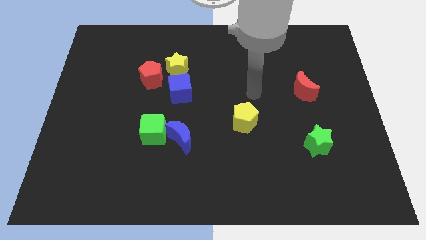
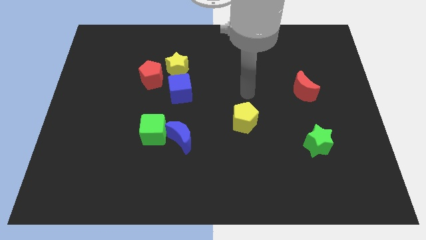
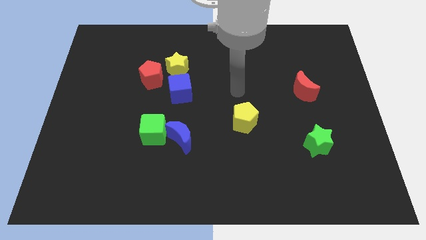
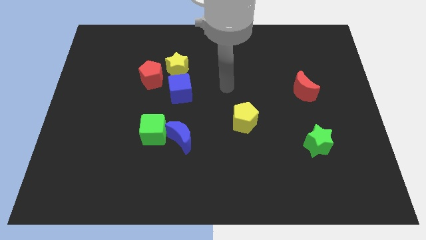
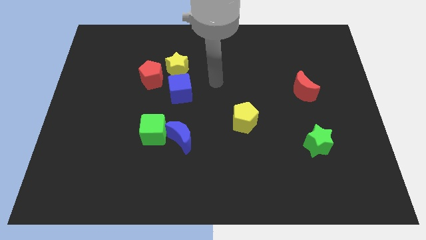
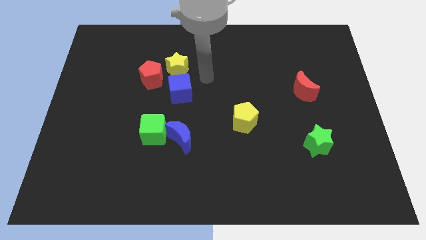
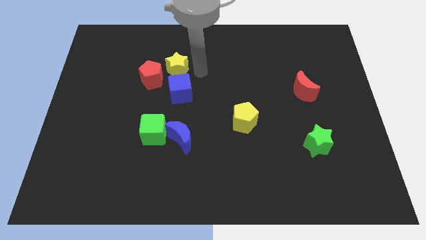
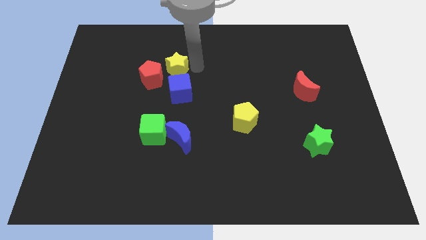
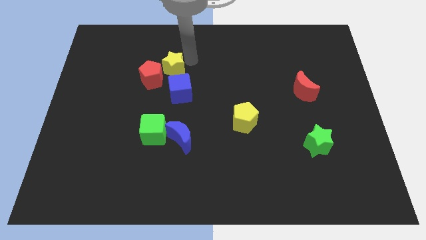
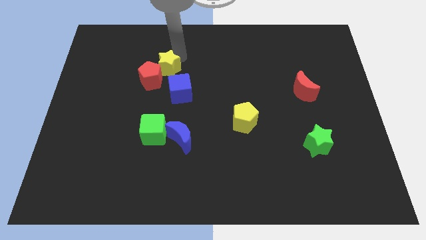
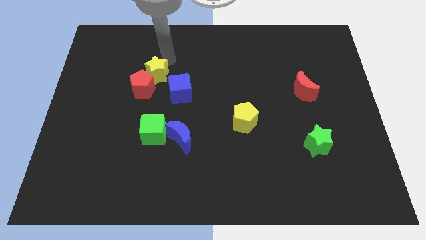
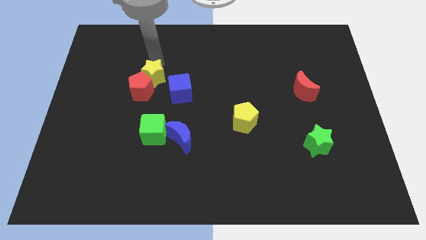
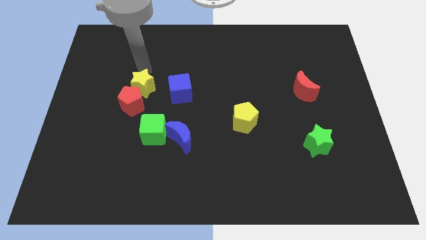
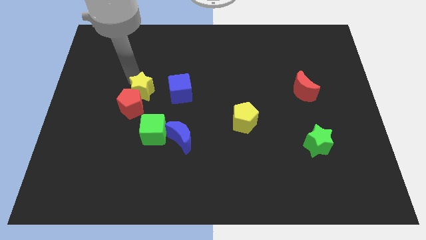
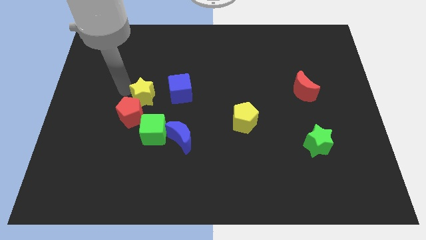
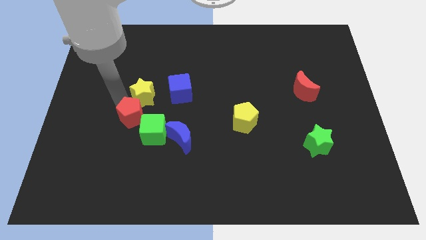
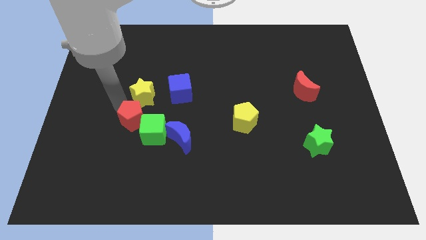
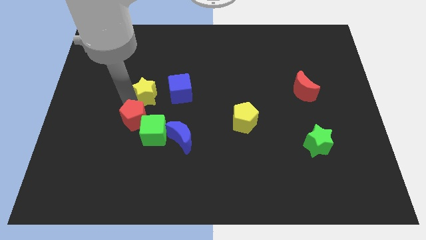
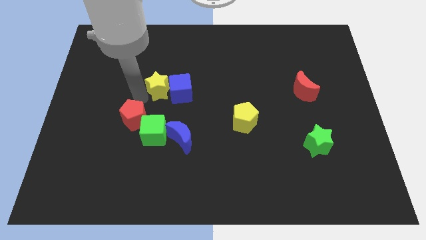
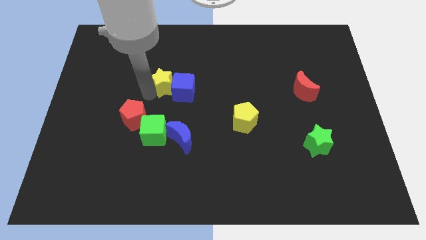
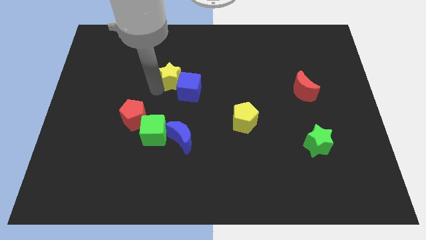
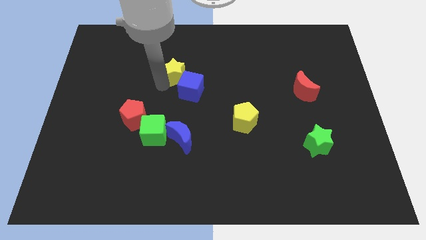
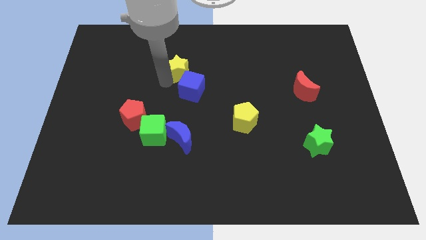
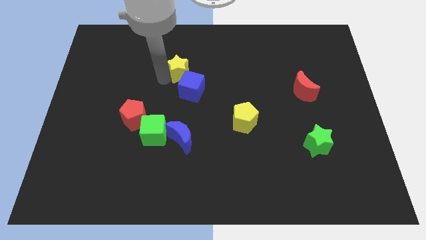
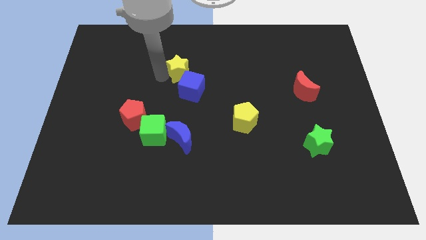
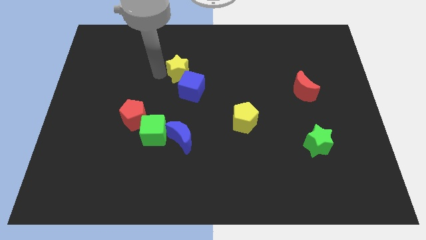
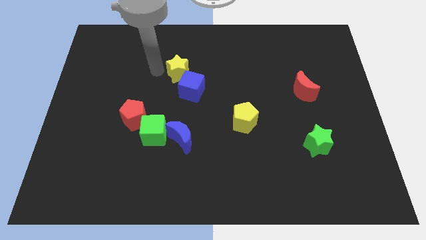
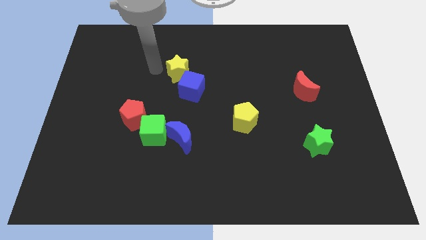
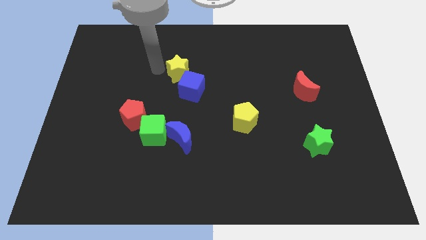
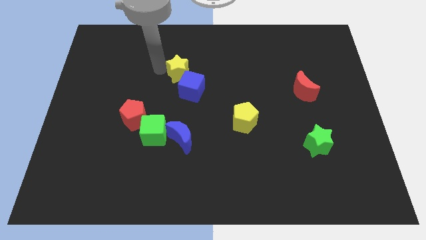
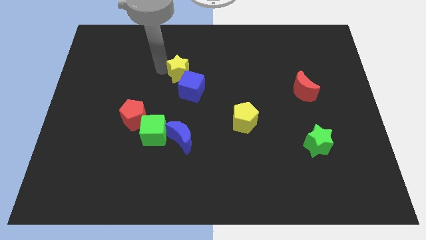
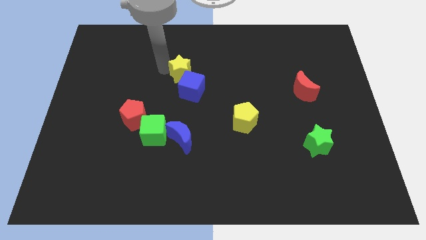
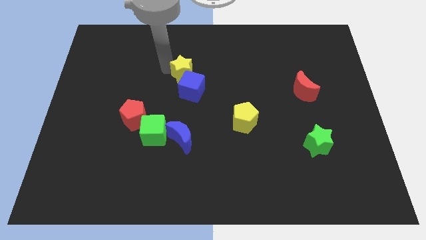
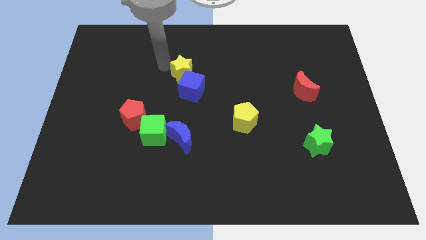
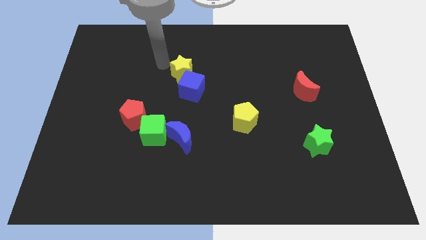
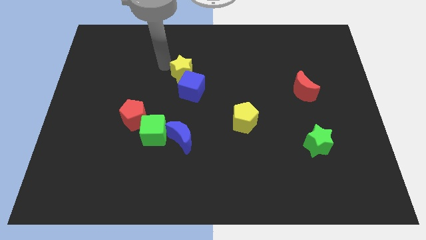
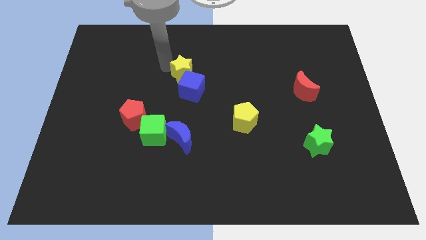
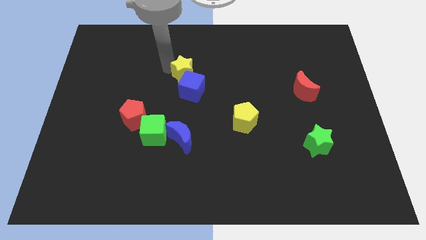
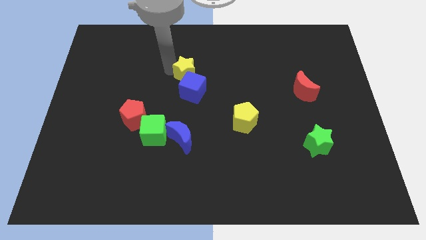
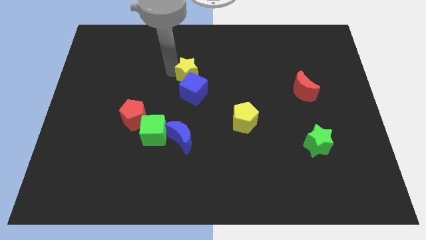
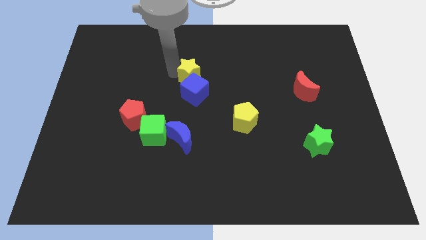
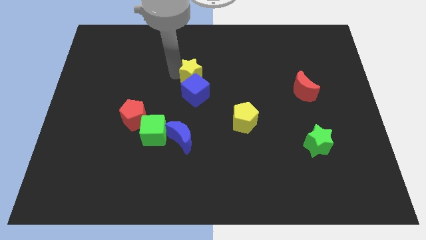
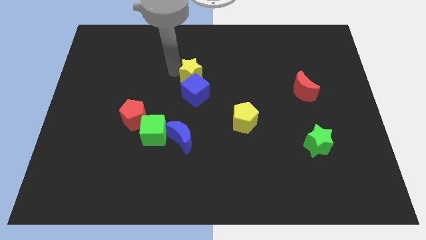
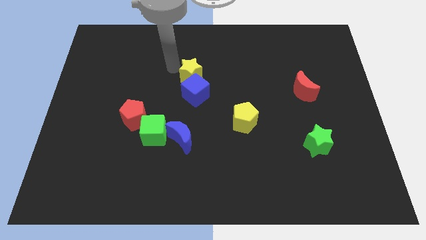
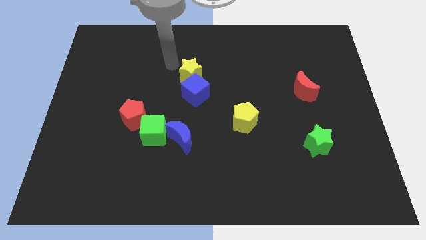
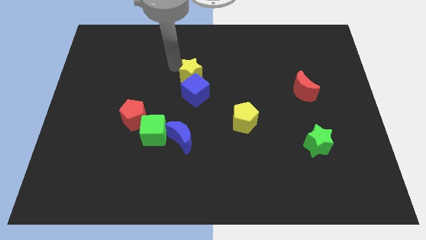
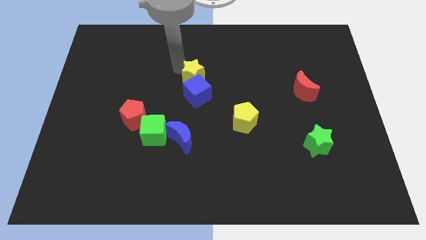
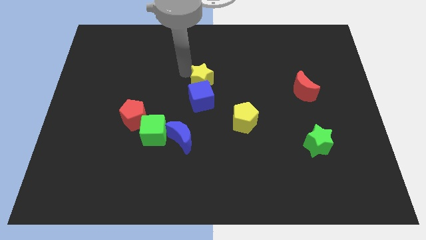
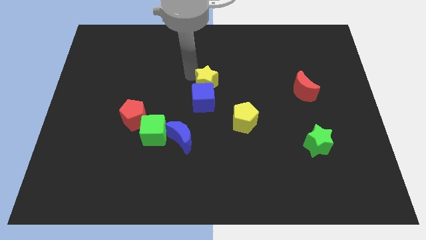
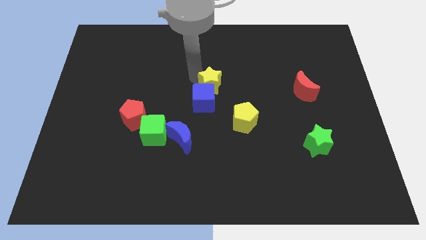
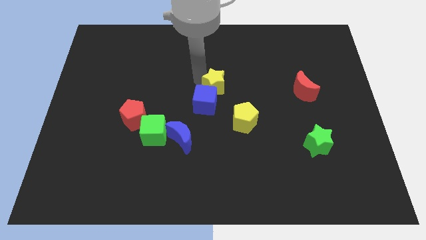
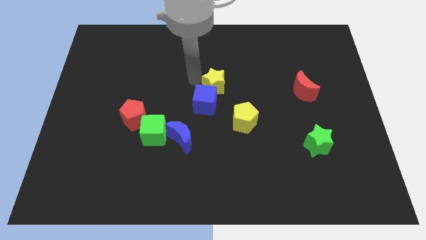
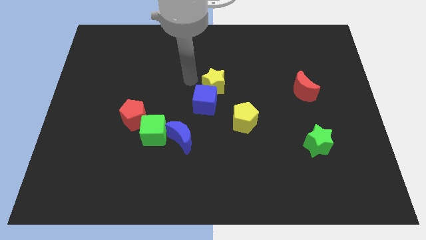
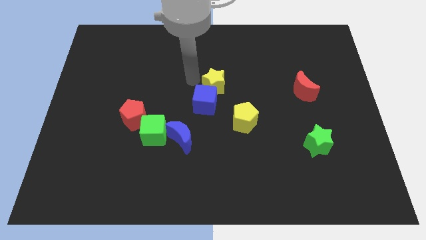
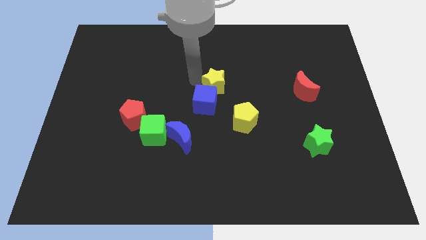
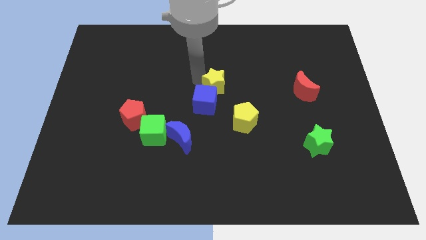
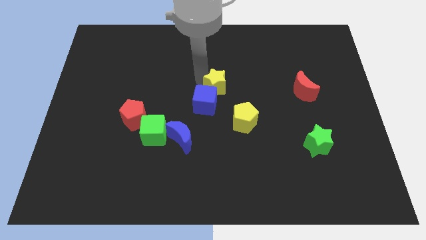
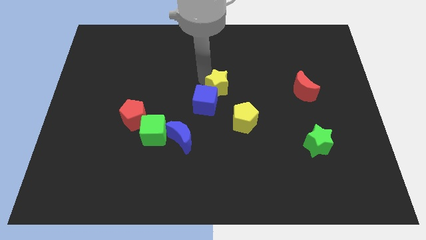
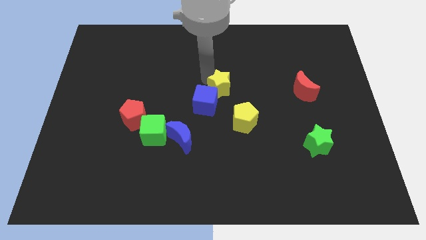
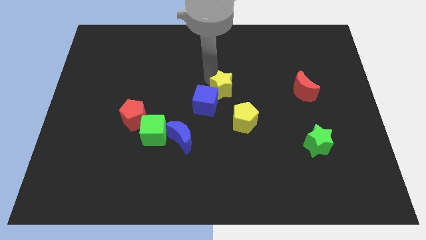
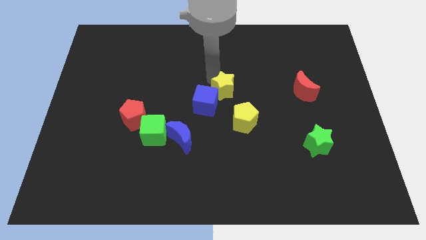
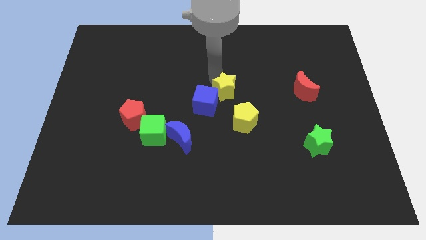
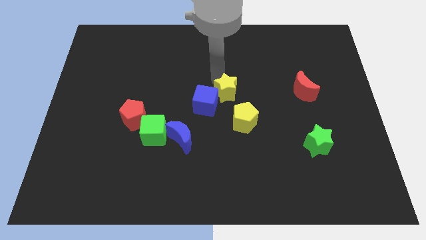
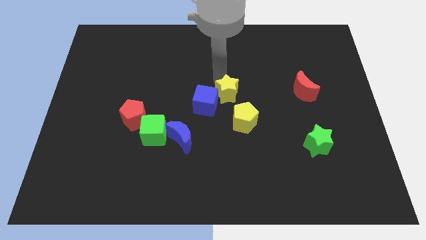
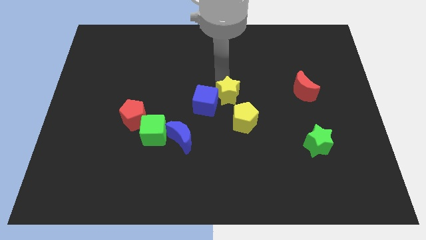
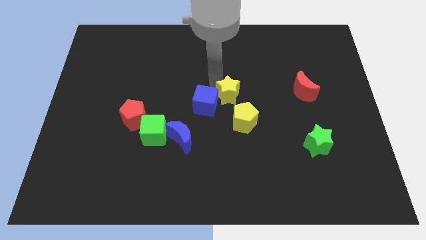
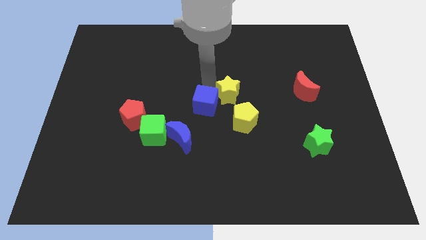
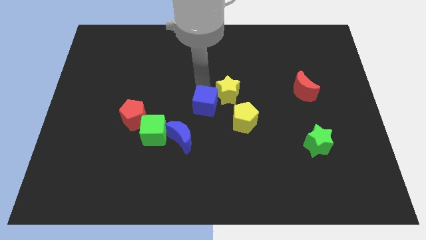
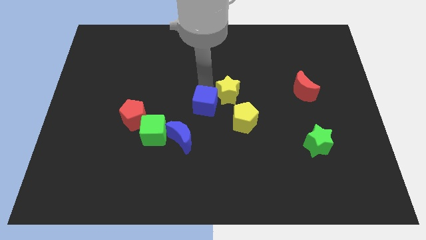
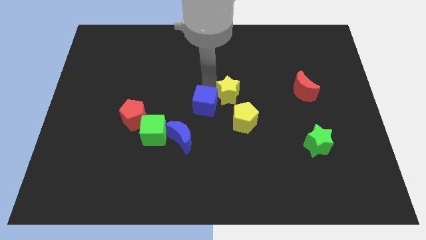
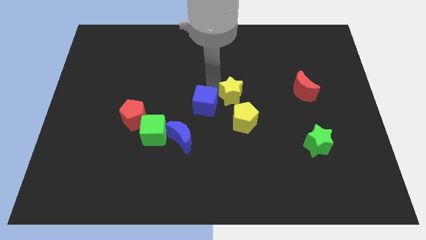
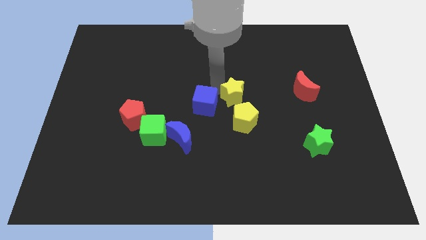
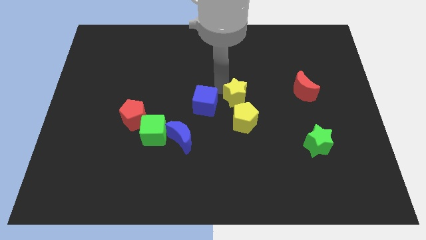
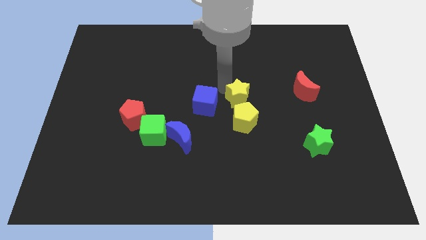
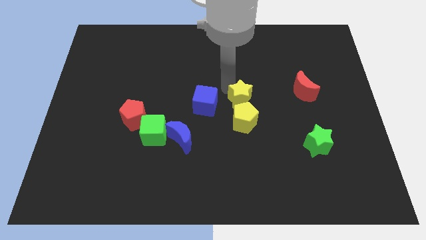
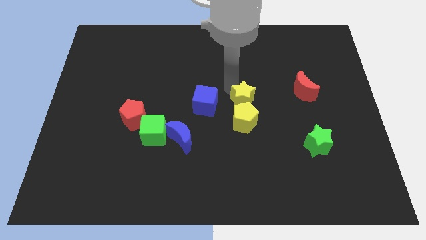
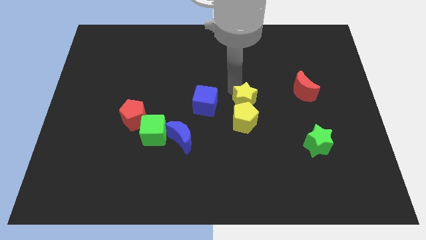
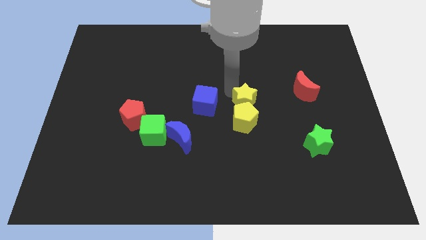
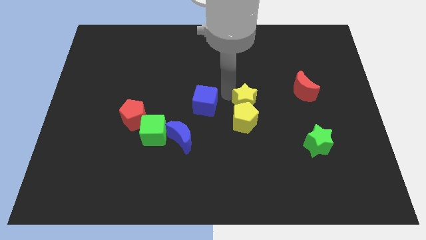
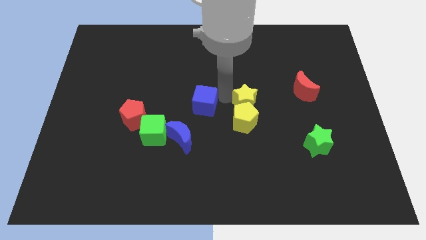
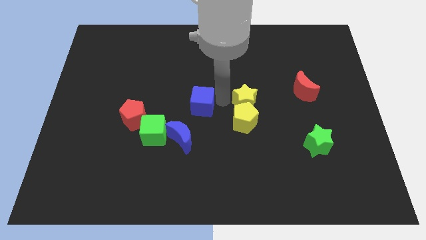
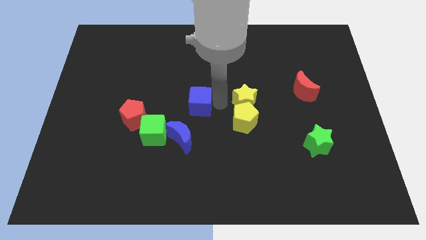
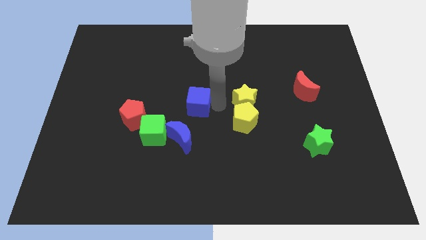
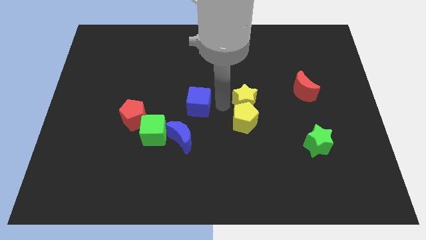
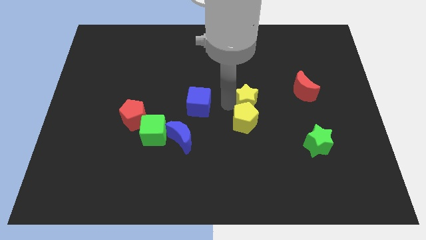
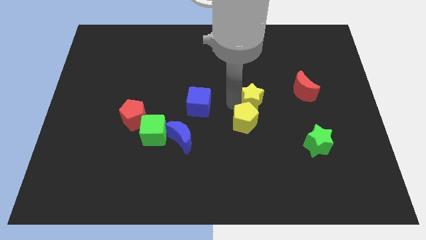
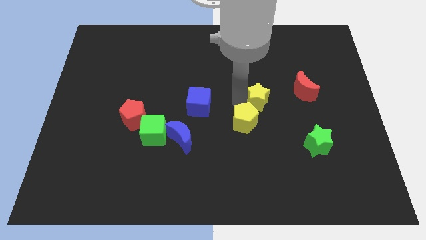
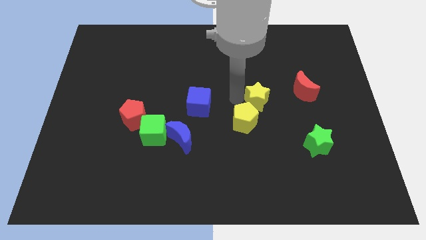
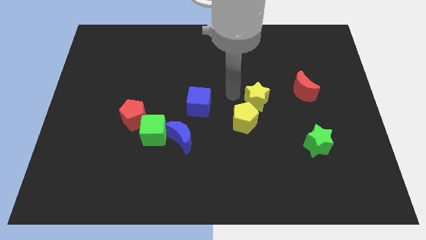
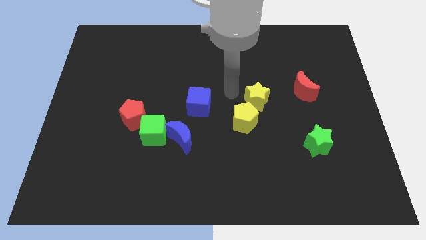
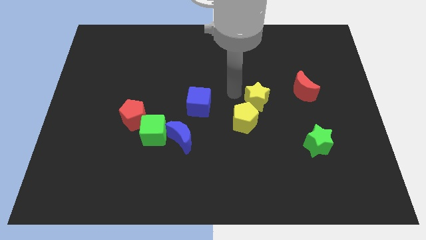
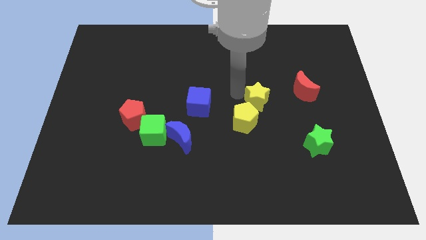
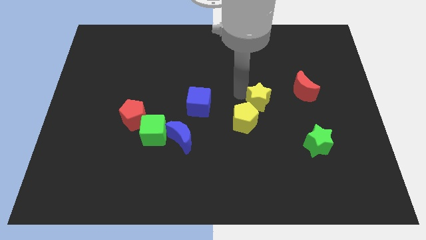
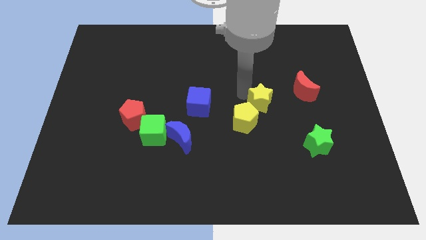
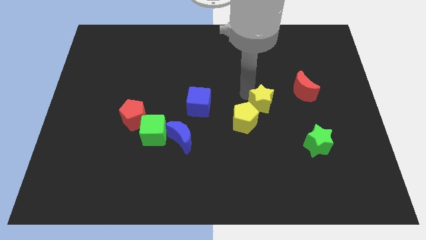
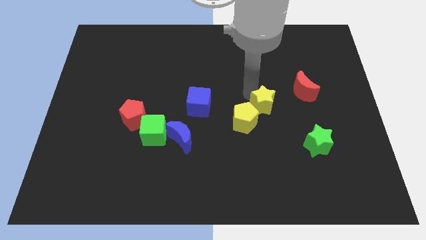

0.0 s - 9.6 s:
put the yellow star diagonally down and to the left of the red moon
